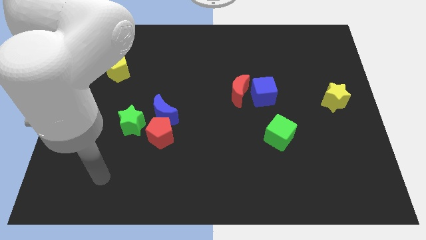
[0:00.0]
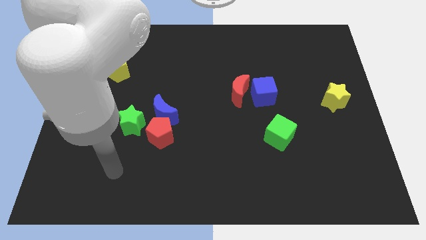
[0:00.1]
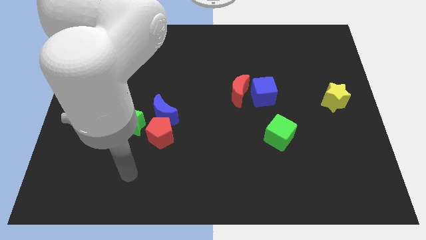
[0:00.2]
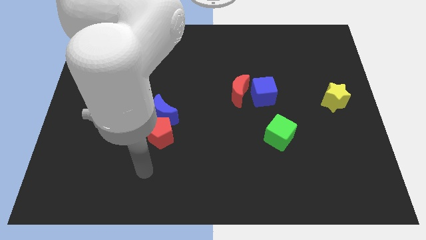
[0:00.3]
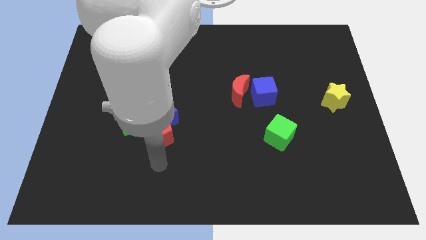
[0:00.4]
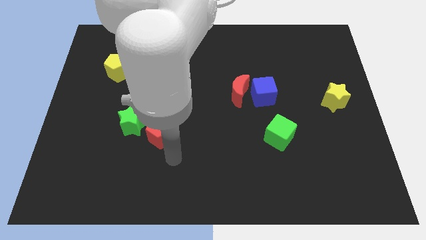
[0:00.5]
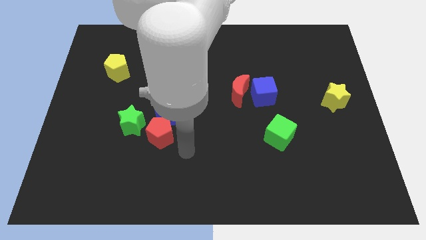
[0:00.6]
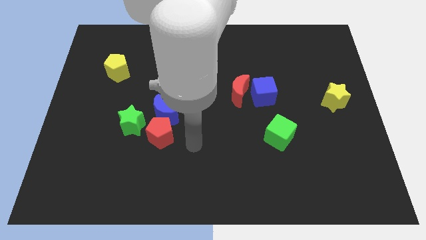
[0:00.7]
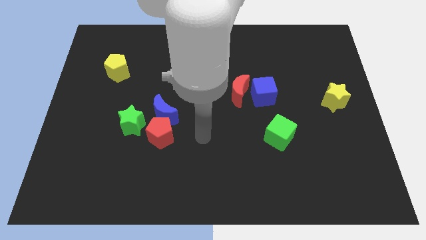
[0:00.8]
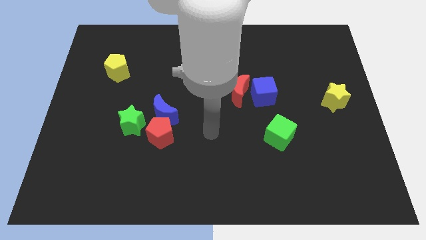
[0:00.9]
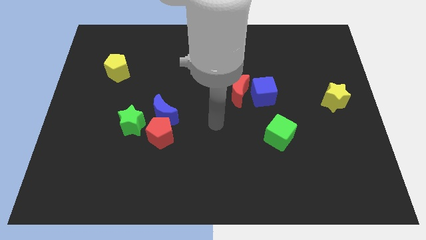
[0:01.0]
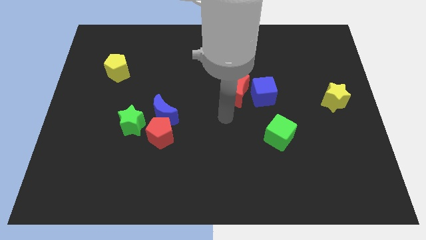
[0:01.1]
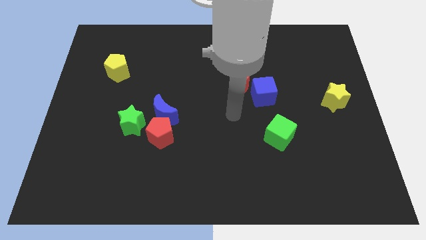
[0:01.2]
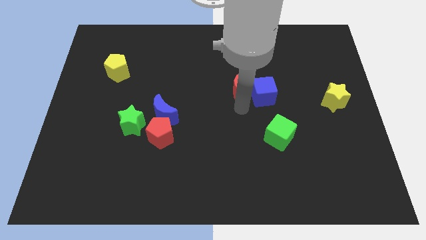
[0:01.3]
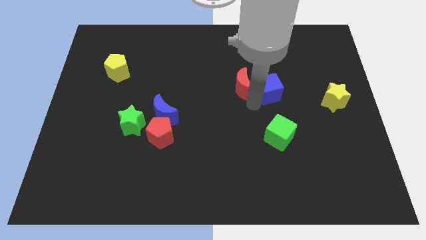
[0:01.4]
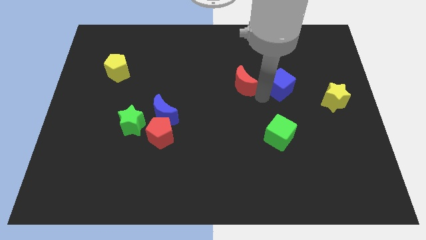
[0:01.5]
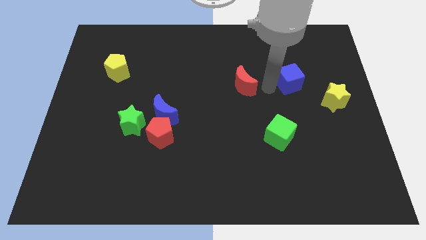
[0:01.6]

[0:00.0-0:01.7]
separate the red moon from the blue cube

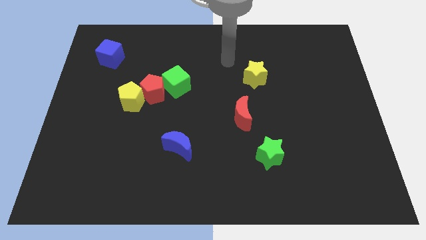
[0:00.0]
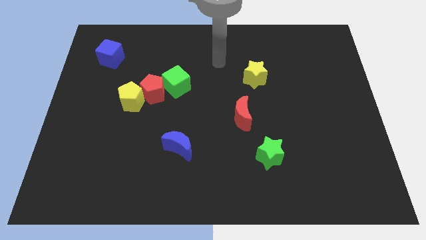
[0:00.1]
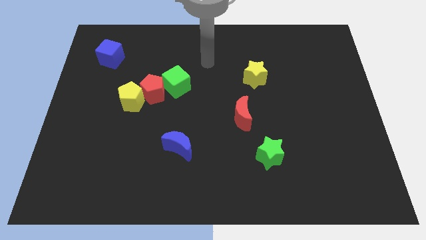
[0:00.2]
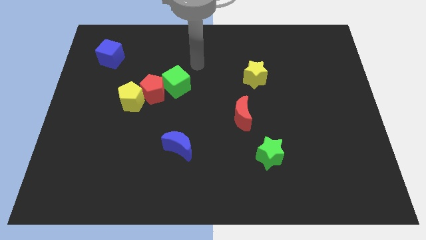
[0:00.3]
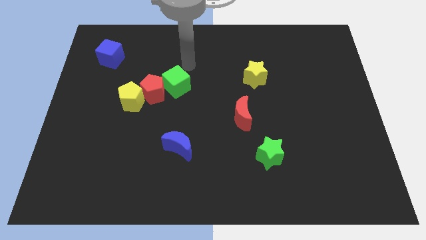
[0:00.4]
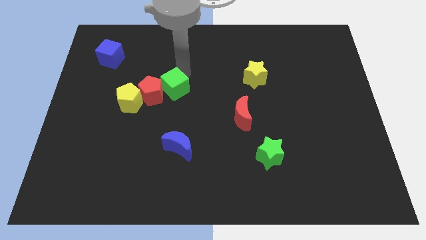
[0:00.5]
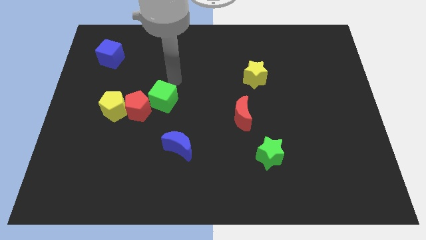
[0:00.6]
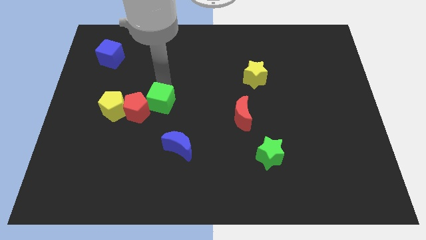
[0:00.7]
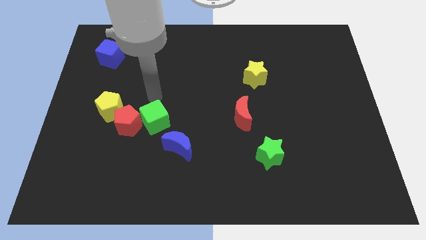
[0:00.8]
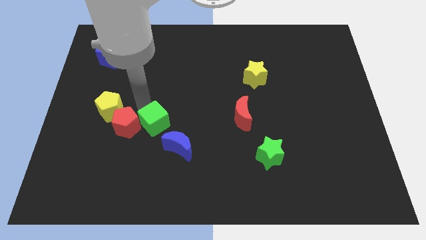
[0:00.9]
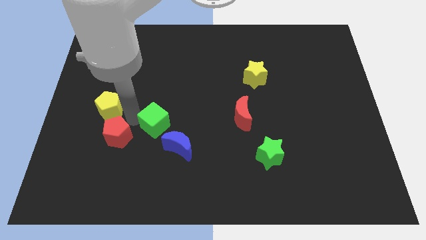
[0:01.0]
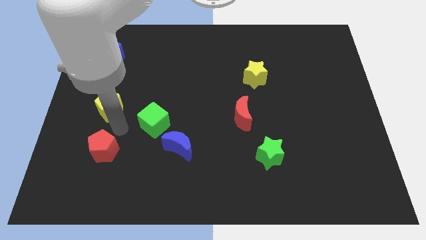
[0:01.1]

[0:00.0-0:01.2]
separate the yellow pentagon from the red pentagon

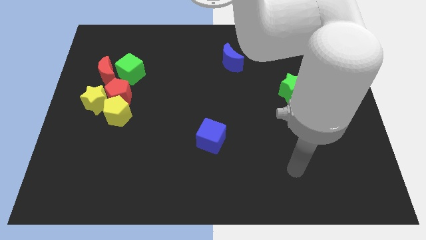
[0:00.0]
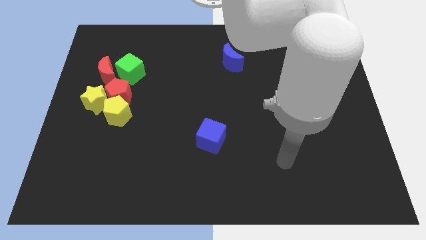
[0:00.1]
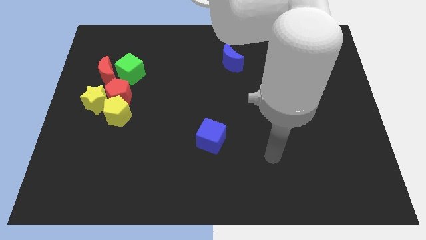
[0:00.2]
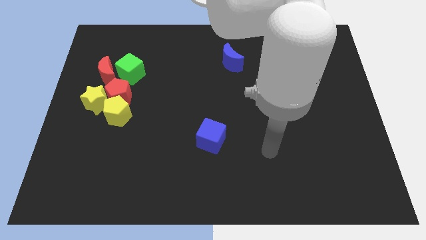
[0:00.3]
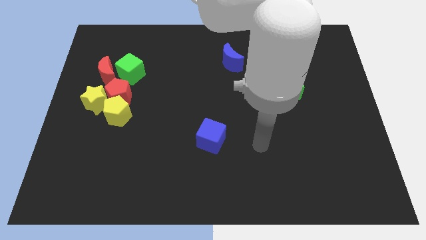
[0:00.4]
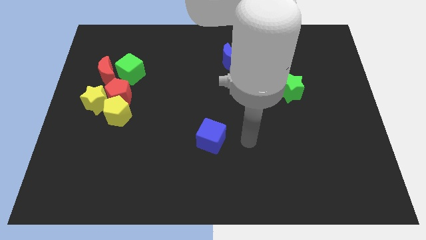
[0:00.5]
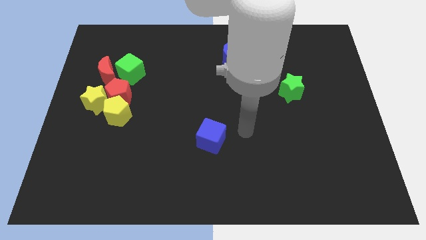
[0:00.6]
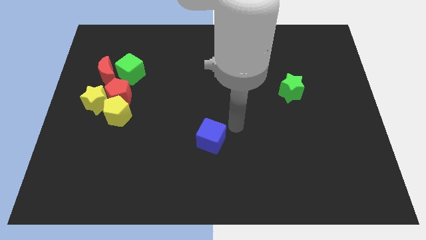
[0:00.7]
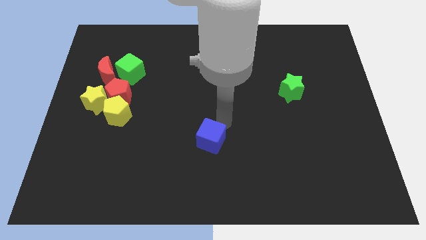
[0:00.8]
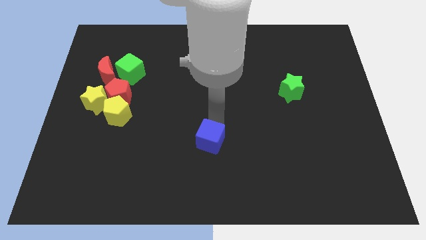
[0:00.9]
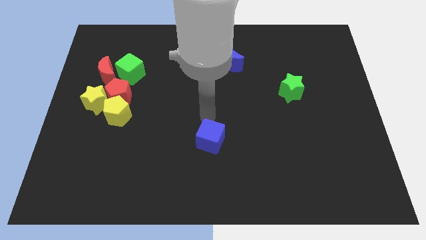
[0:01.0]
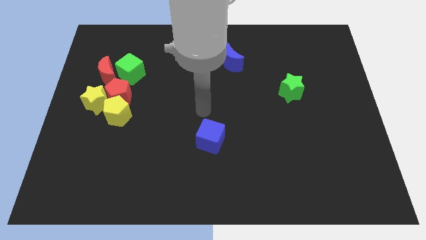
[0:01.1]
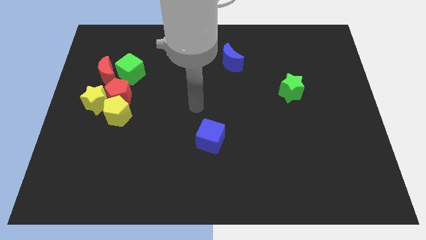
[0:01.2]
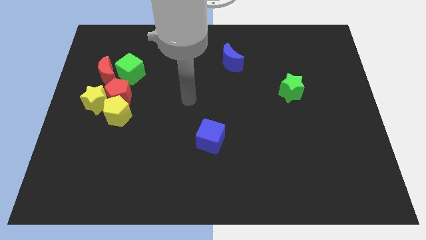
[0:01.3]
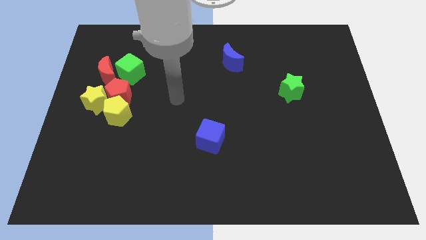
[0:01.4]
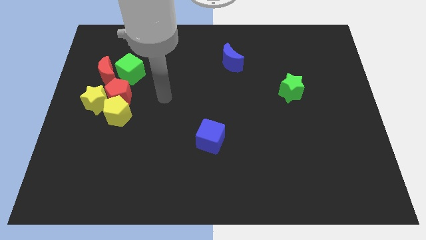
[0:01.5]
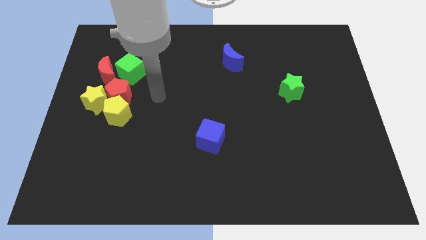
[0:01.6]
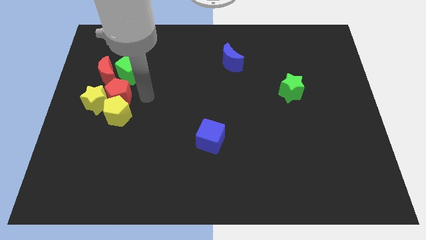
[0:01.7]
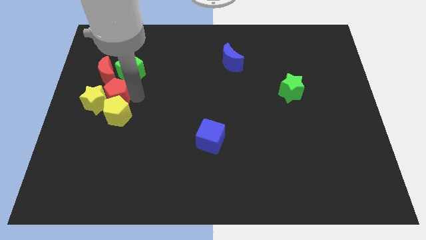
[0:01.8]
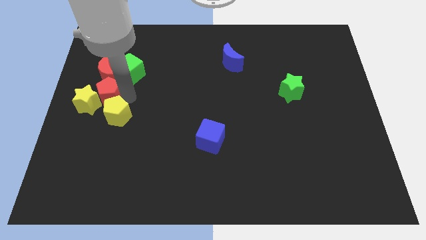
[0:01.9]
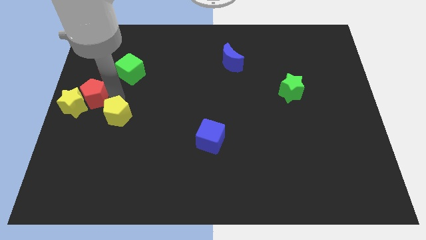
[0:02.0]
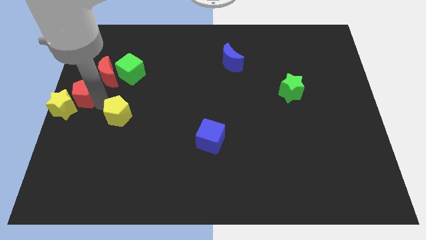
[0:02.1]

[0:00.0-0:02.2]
separate the yellow pentagon from the red pentagon and yellow star

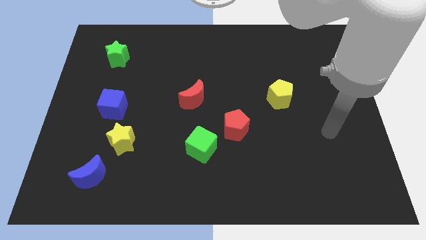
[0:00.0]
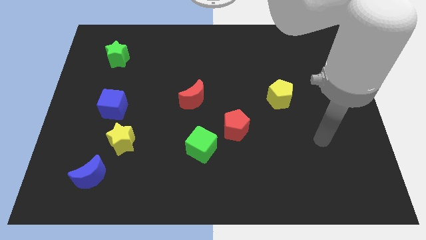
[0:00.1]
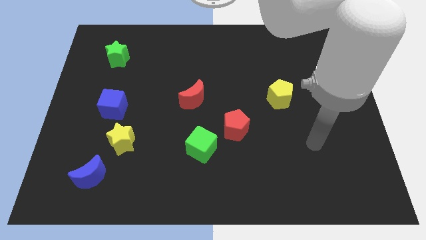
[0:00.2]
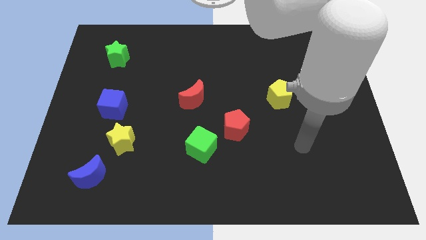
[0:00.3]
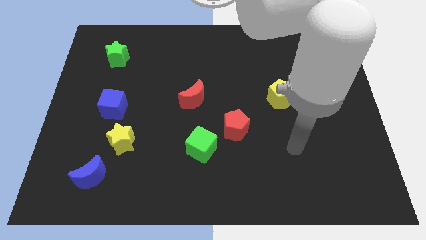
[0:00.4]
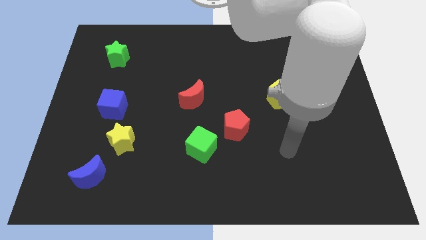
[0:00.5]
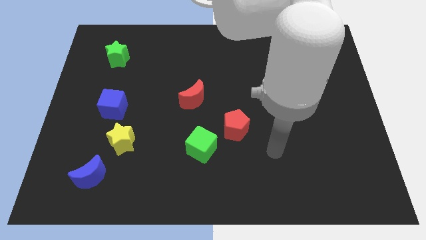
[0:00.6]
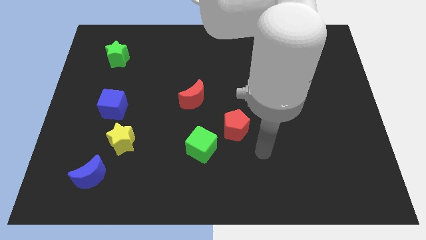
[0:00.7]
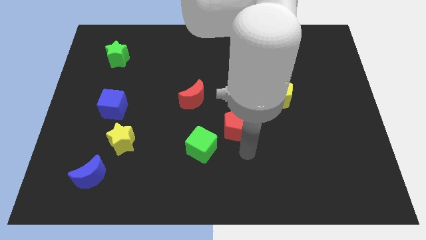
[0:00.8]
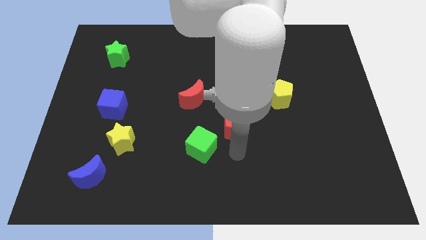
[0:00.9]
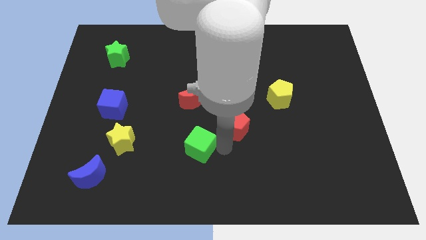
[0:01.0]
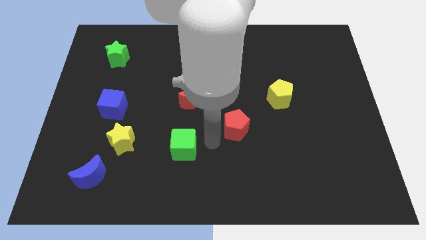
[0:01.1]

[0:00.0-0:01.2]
separate the red pentagon from the green cube

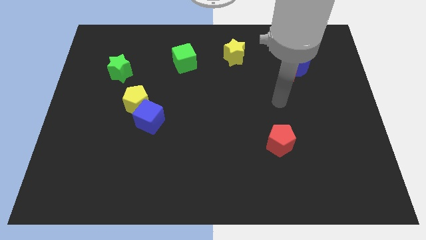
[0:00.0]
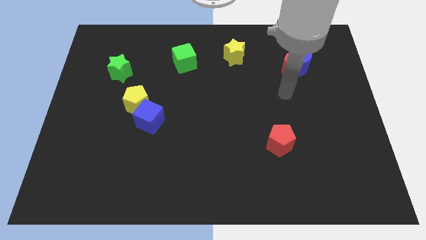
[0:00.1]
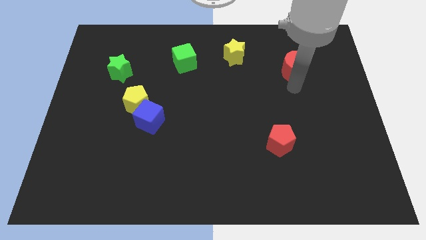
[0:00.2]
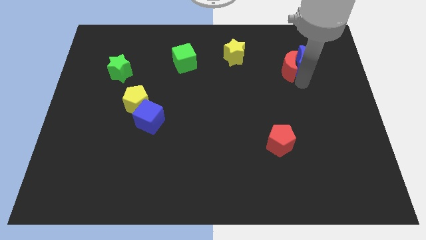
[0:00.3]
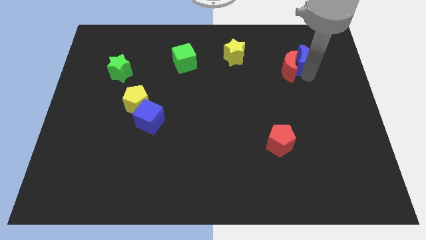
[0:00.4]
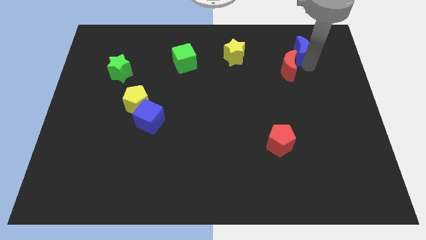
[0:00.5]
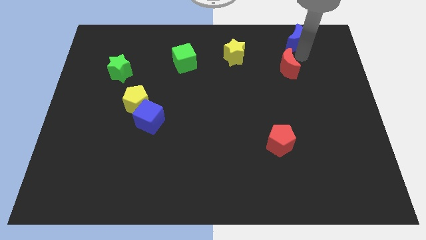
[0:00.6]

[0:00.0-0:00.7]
separate the red moon from the blue moon

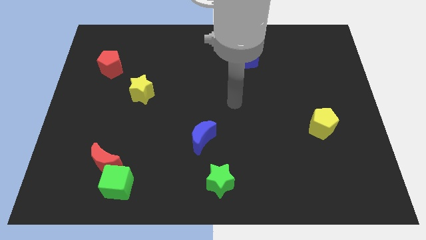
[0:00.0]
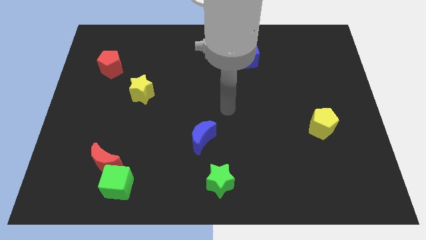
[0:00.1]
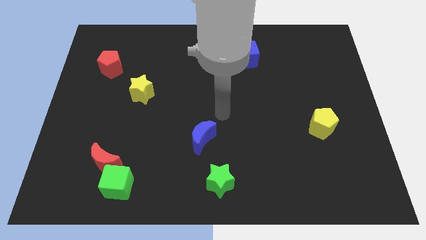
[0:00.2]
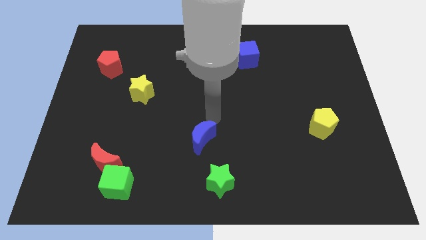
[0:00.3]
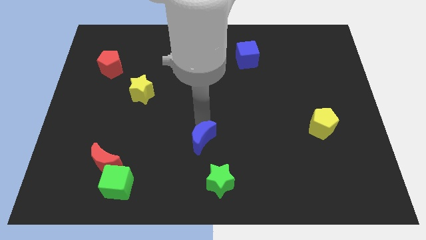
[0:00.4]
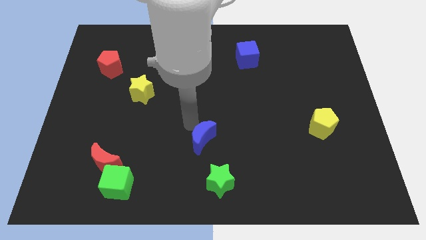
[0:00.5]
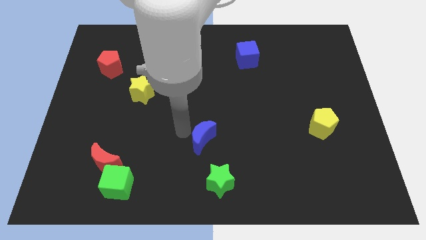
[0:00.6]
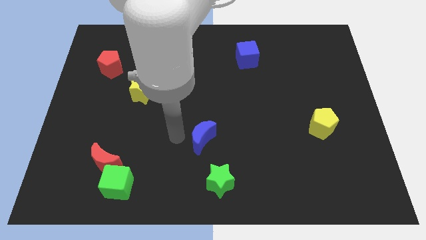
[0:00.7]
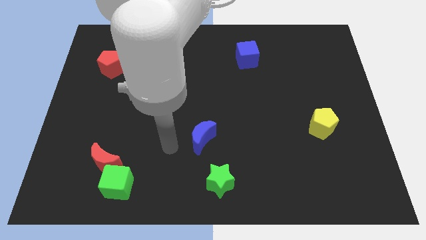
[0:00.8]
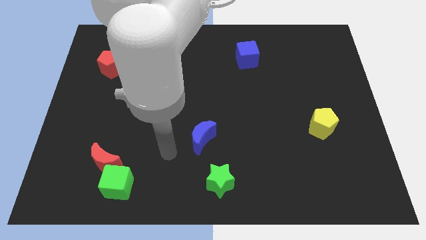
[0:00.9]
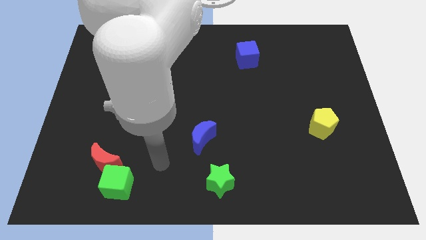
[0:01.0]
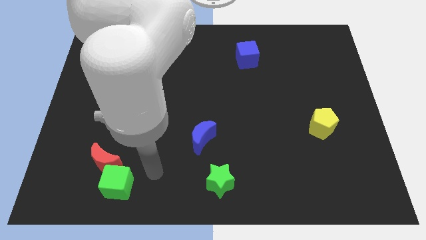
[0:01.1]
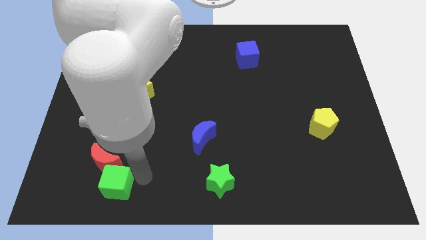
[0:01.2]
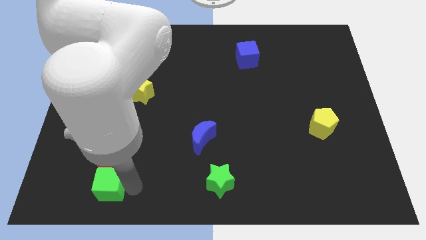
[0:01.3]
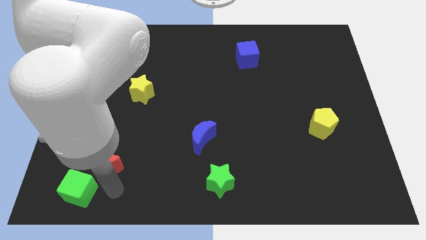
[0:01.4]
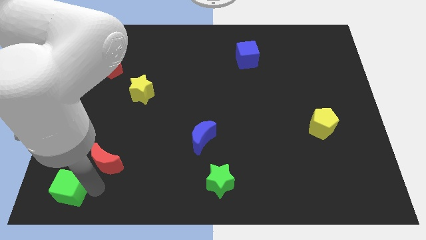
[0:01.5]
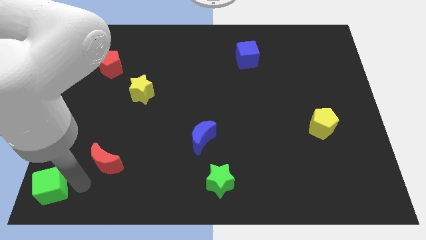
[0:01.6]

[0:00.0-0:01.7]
pull the red moon apart from the green cube

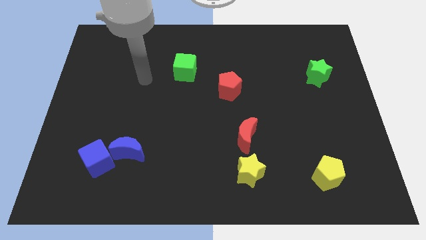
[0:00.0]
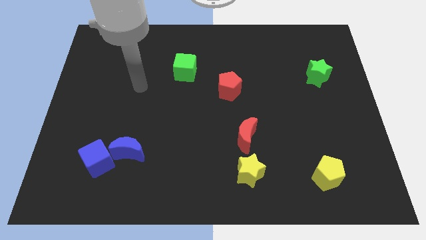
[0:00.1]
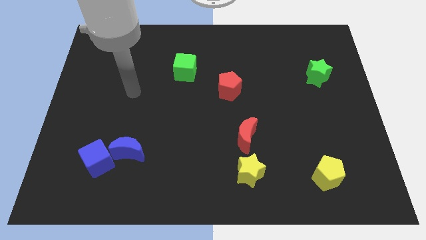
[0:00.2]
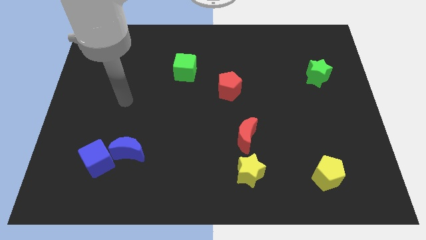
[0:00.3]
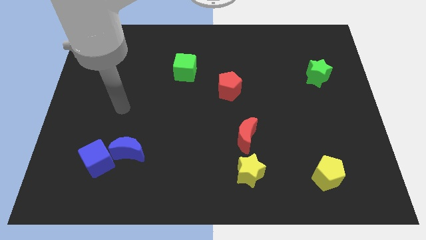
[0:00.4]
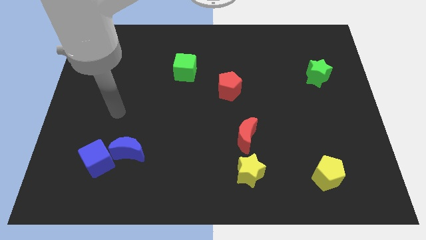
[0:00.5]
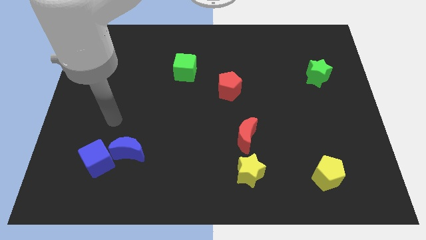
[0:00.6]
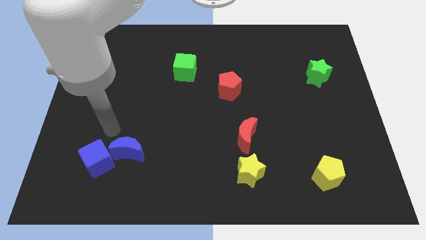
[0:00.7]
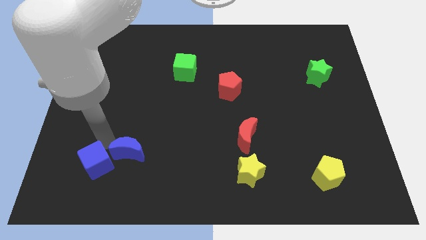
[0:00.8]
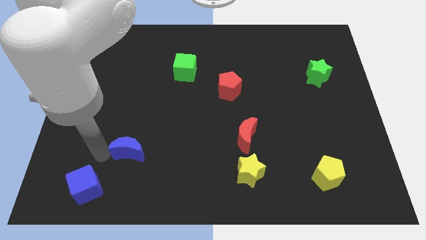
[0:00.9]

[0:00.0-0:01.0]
separate the blue moon from the blue cube
